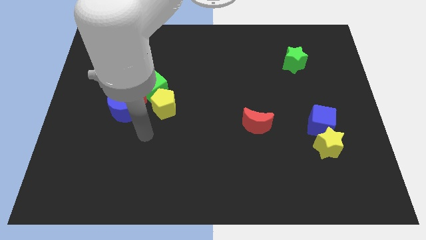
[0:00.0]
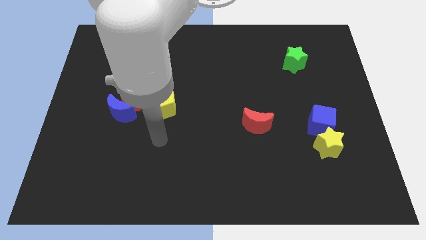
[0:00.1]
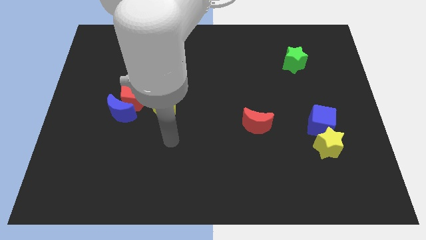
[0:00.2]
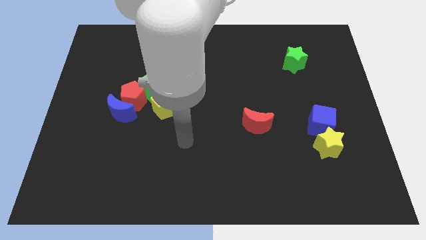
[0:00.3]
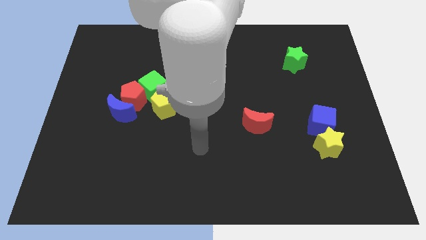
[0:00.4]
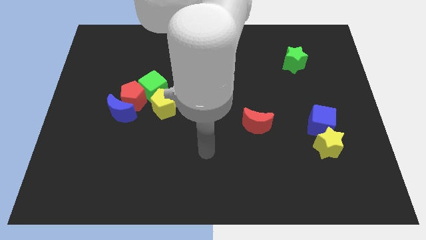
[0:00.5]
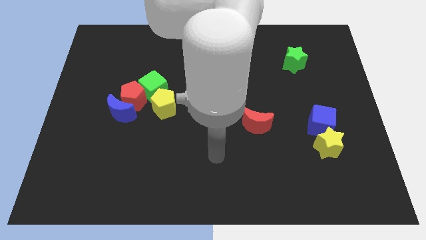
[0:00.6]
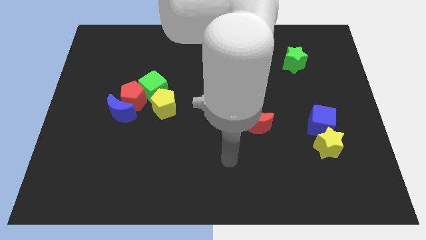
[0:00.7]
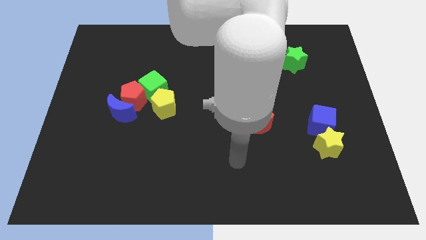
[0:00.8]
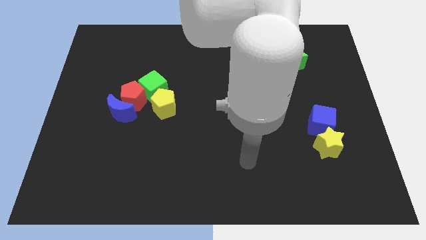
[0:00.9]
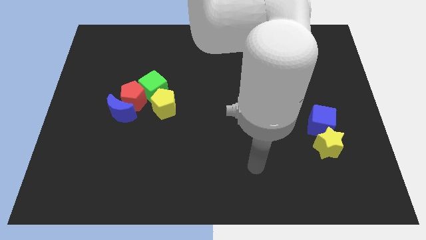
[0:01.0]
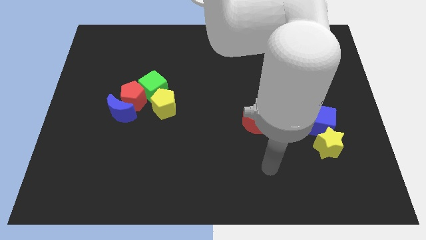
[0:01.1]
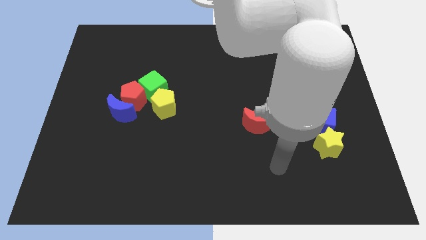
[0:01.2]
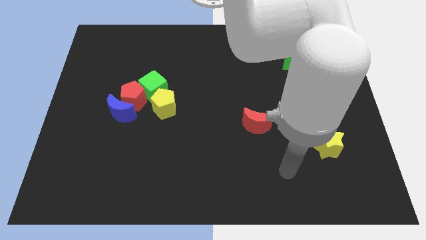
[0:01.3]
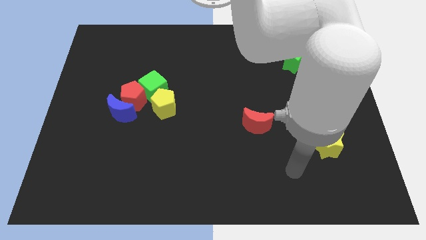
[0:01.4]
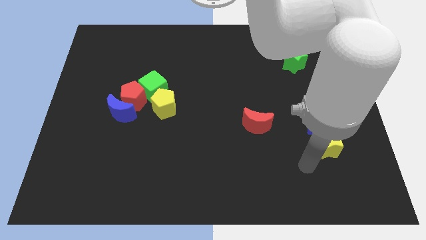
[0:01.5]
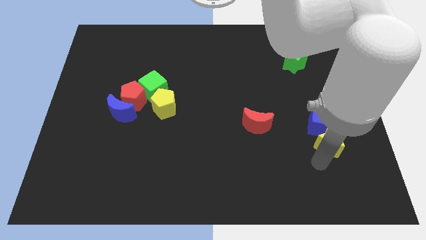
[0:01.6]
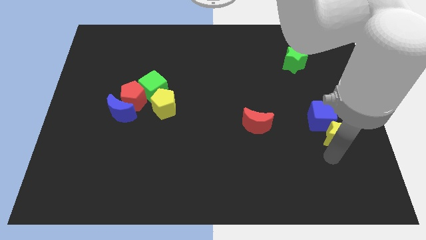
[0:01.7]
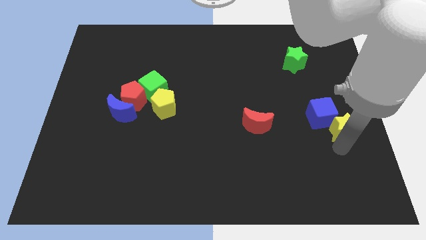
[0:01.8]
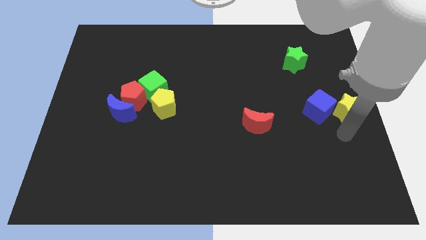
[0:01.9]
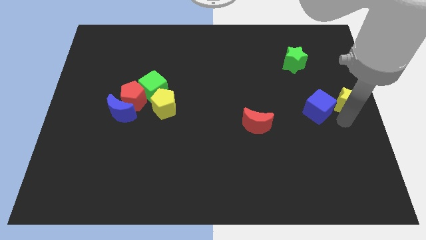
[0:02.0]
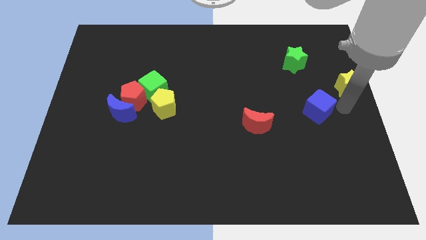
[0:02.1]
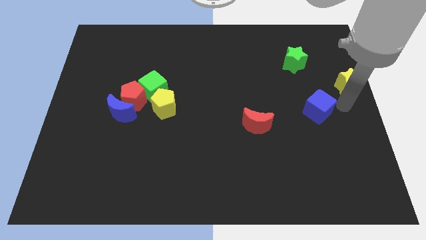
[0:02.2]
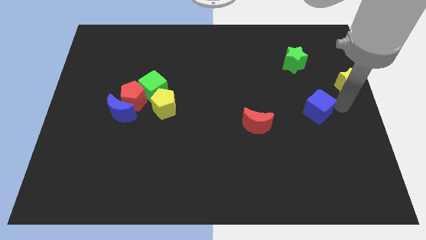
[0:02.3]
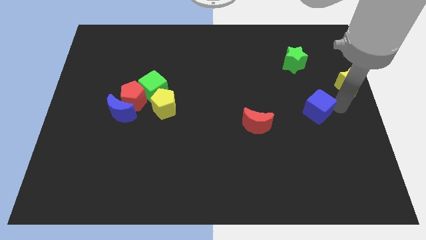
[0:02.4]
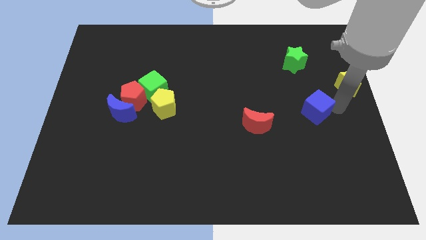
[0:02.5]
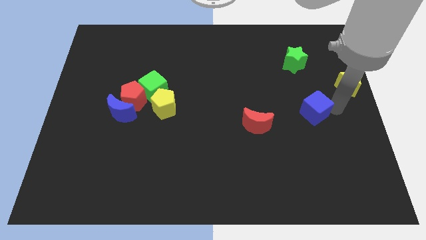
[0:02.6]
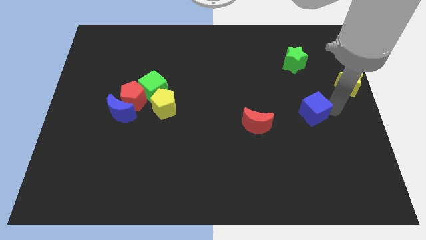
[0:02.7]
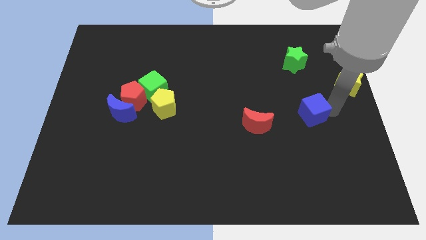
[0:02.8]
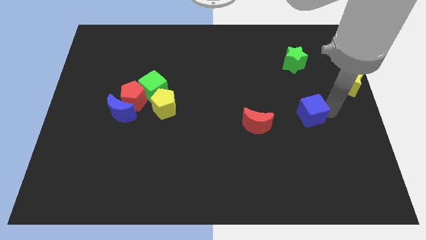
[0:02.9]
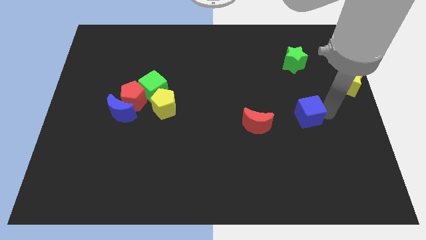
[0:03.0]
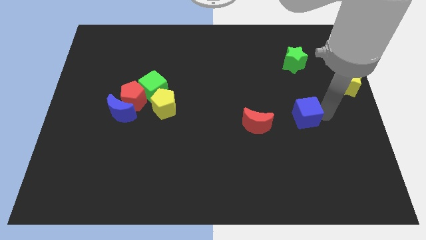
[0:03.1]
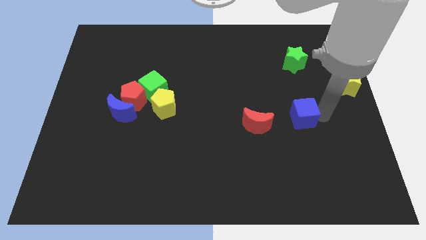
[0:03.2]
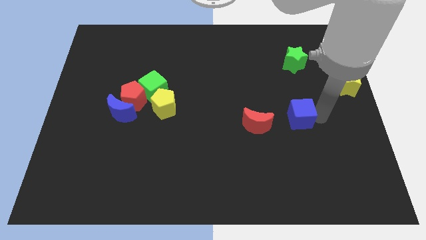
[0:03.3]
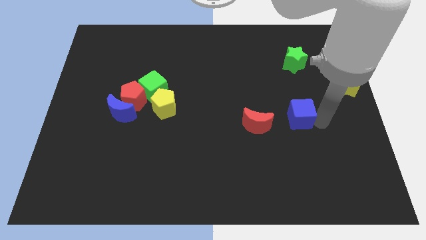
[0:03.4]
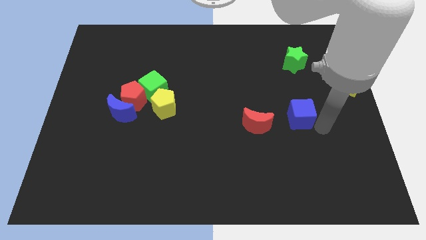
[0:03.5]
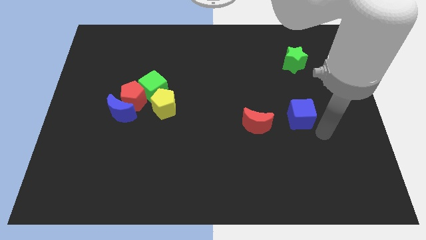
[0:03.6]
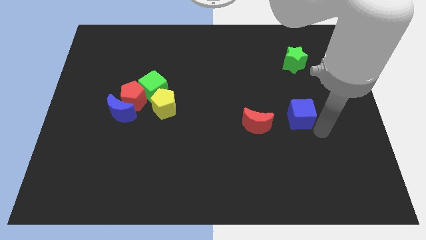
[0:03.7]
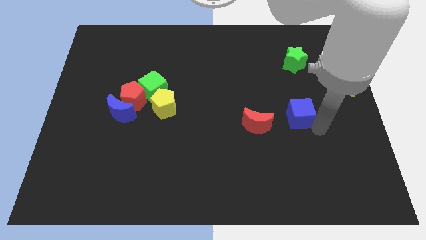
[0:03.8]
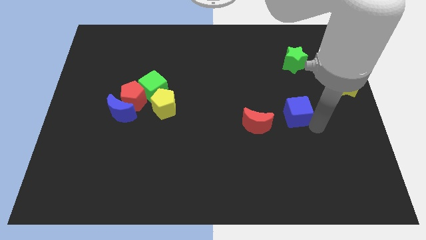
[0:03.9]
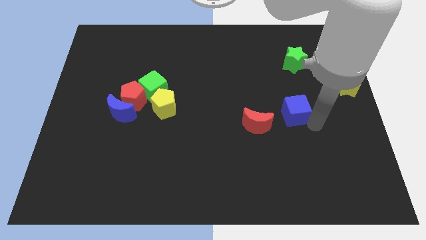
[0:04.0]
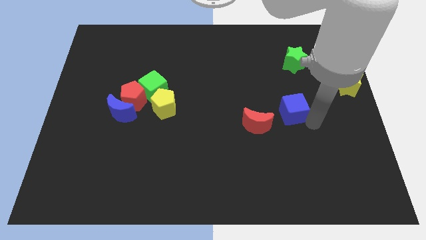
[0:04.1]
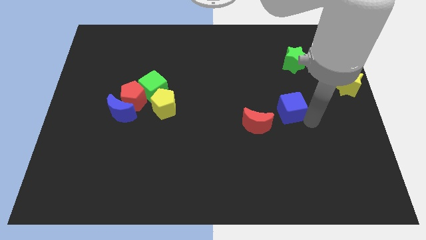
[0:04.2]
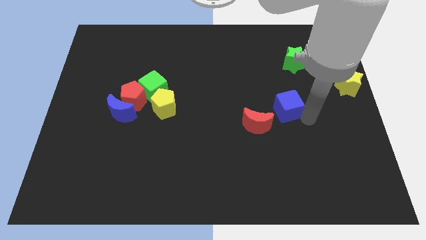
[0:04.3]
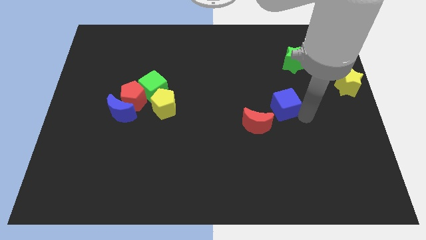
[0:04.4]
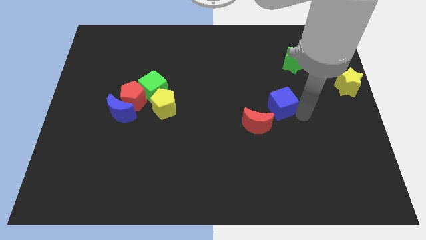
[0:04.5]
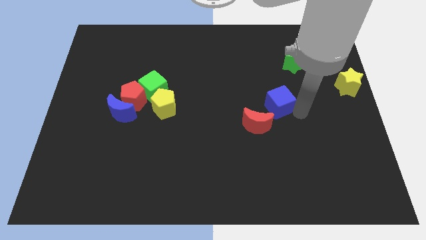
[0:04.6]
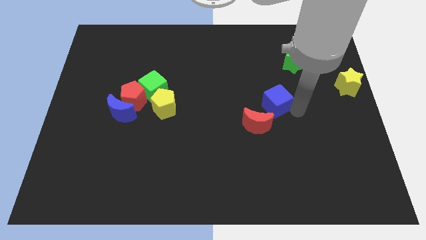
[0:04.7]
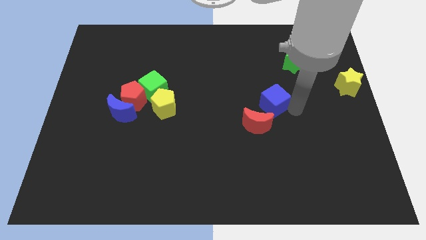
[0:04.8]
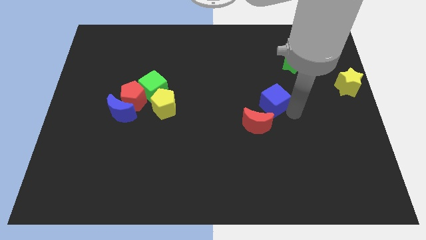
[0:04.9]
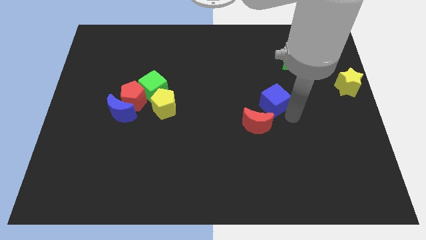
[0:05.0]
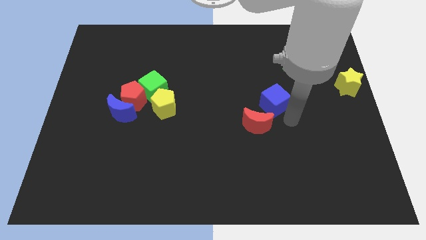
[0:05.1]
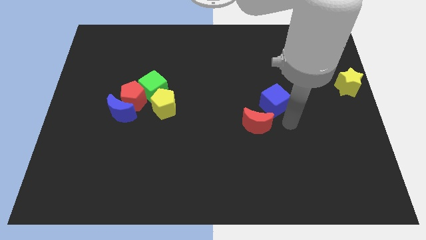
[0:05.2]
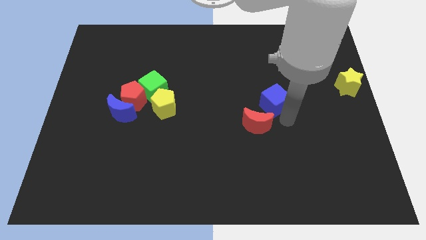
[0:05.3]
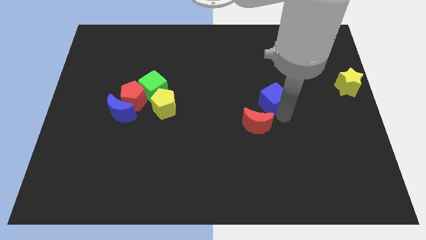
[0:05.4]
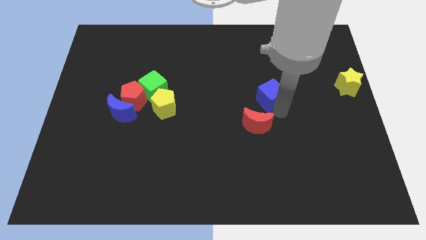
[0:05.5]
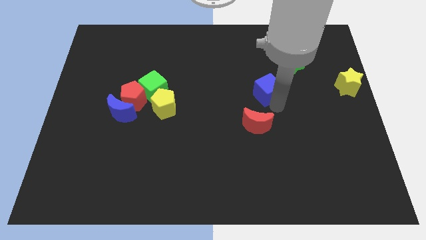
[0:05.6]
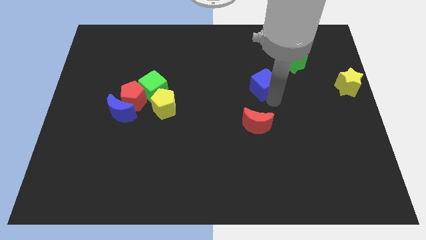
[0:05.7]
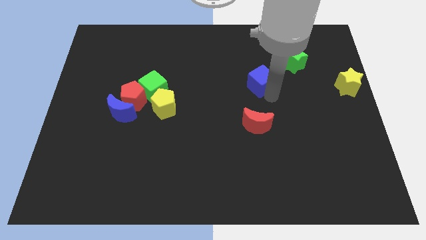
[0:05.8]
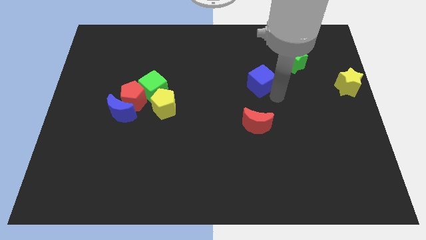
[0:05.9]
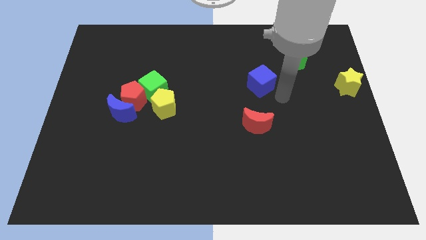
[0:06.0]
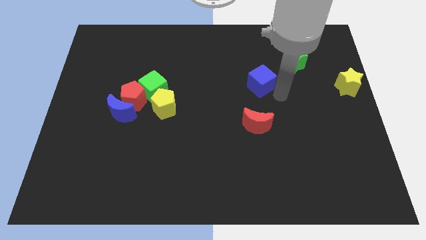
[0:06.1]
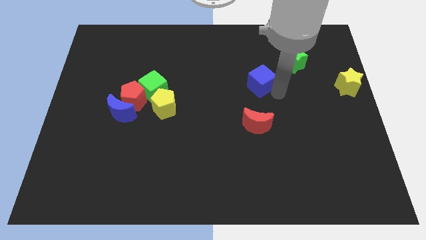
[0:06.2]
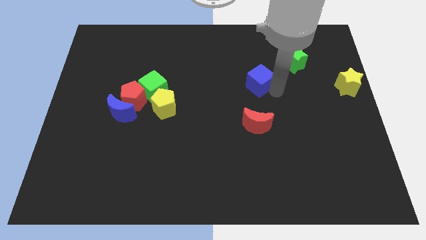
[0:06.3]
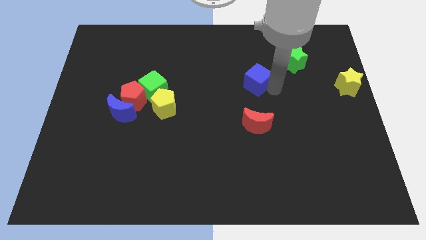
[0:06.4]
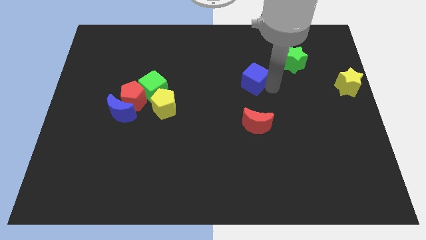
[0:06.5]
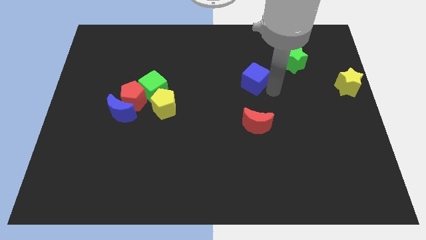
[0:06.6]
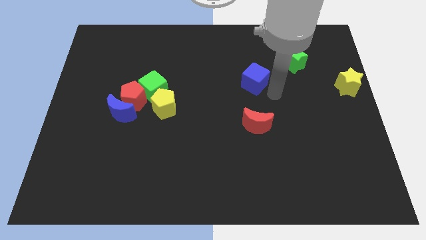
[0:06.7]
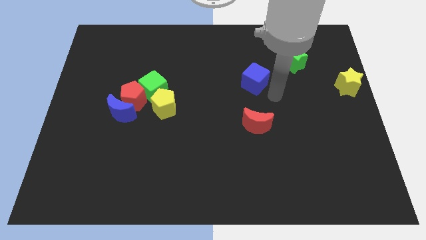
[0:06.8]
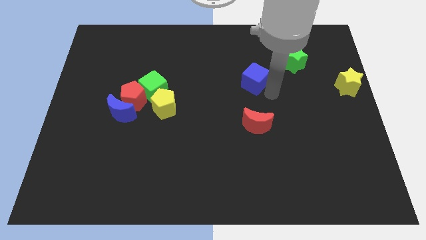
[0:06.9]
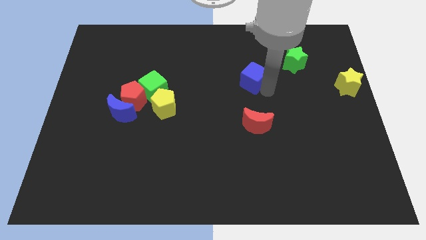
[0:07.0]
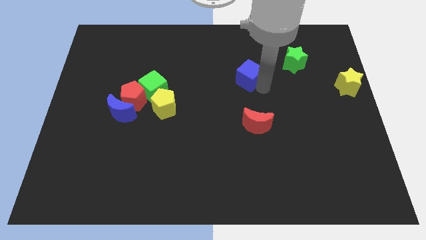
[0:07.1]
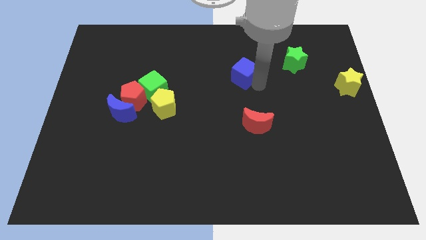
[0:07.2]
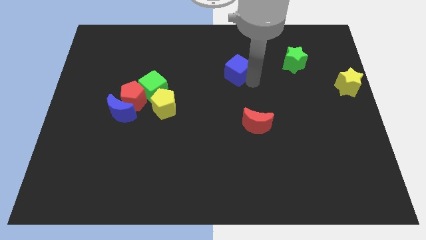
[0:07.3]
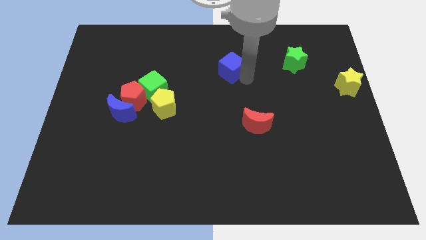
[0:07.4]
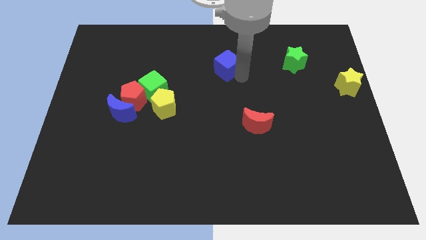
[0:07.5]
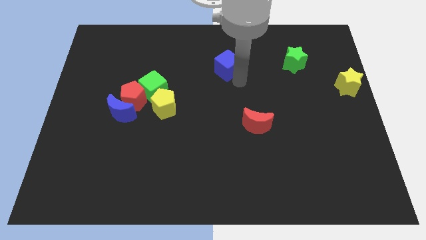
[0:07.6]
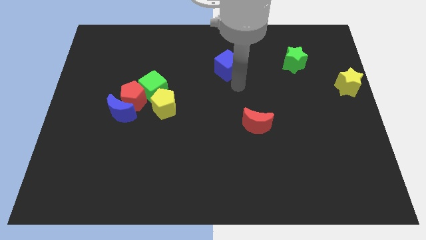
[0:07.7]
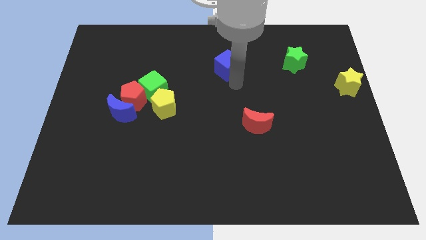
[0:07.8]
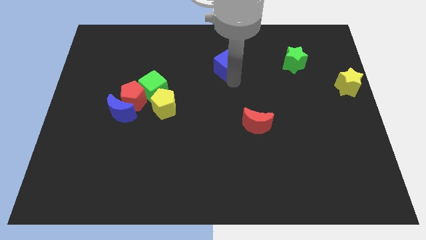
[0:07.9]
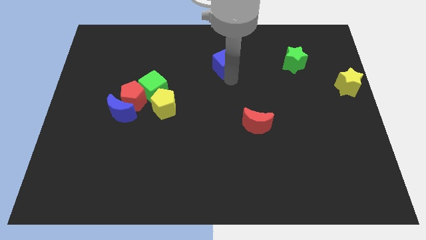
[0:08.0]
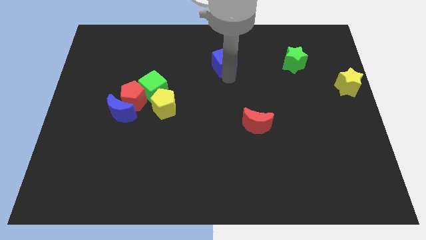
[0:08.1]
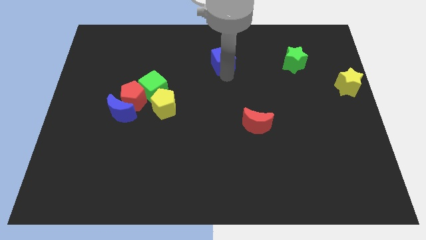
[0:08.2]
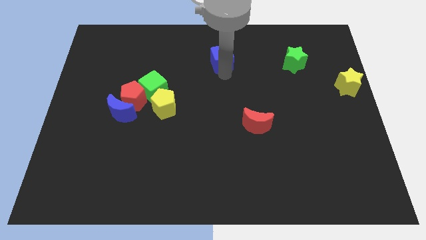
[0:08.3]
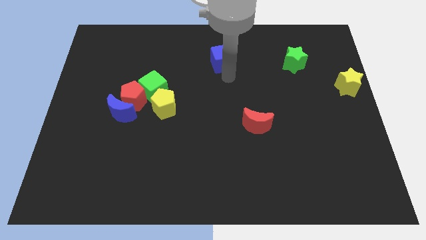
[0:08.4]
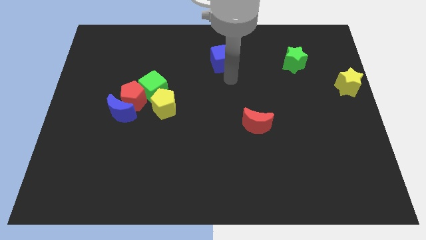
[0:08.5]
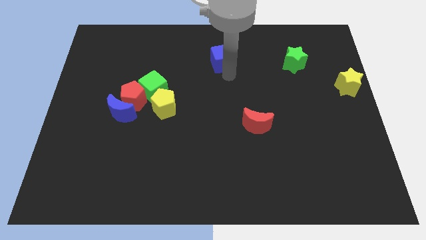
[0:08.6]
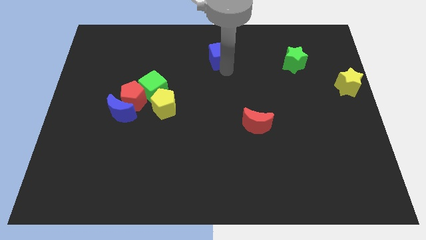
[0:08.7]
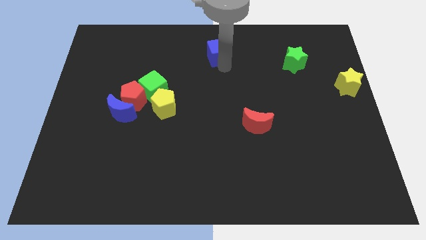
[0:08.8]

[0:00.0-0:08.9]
put the blue cube to the top
